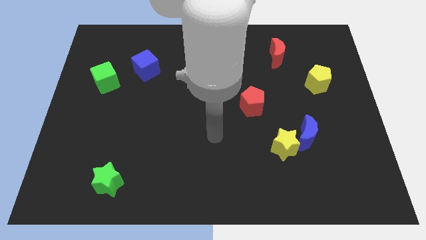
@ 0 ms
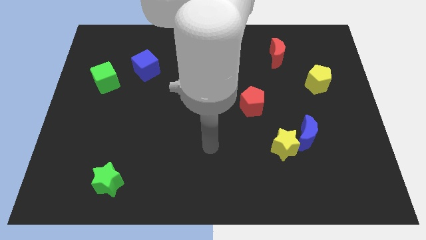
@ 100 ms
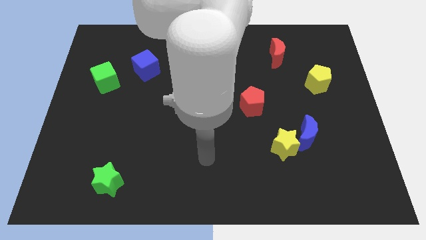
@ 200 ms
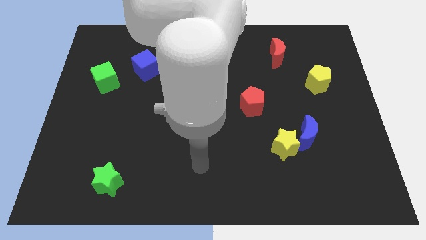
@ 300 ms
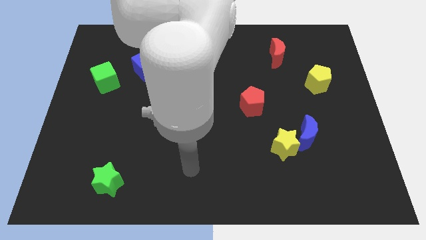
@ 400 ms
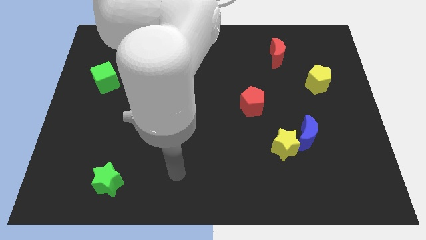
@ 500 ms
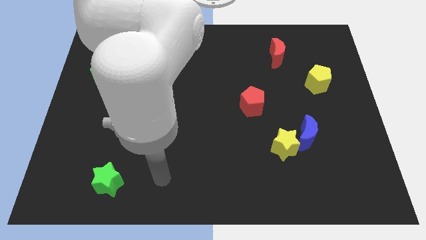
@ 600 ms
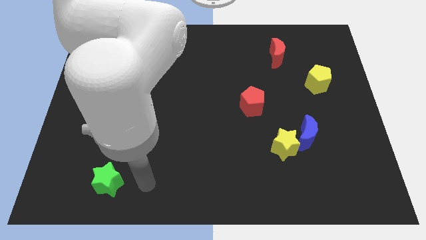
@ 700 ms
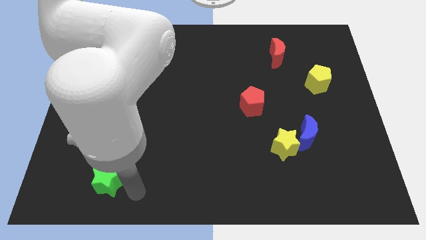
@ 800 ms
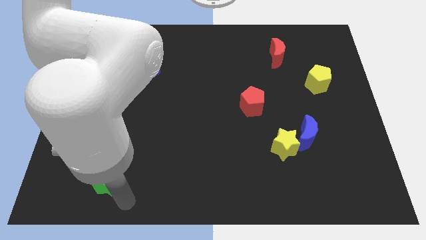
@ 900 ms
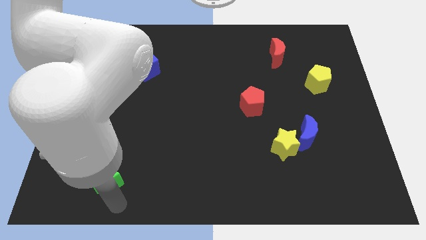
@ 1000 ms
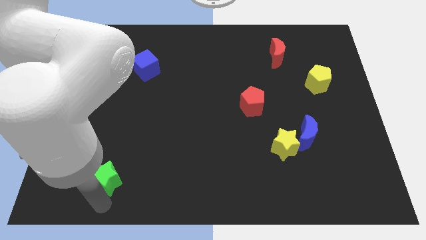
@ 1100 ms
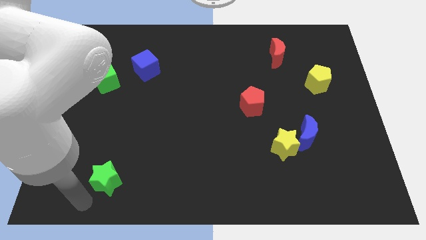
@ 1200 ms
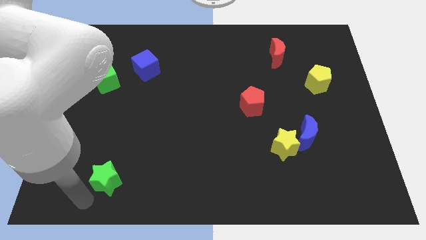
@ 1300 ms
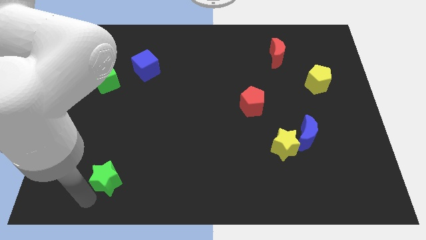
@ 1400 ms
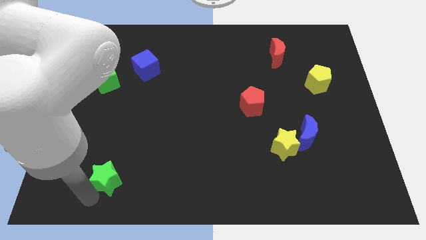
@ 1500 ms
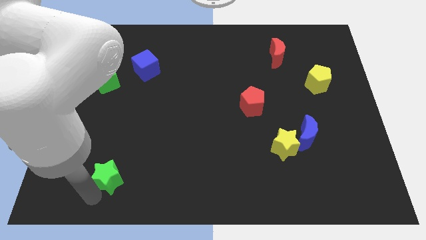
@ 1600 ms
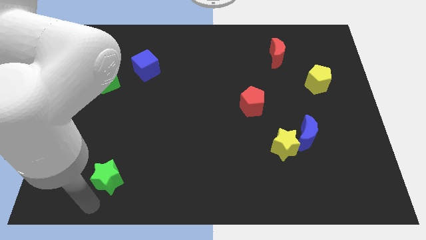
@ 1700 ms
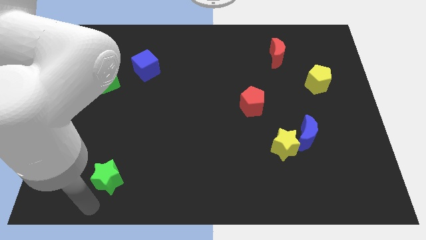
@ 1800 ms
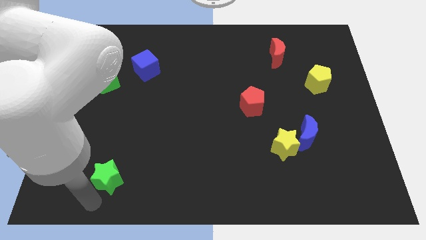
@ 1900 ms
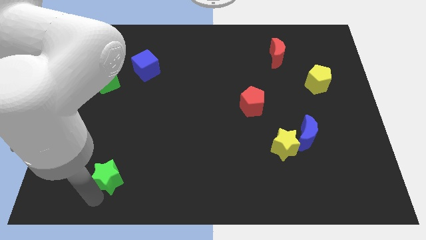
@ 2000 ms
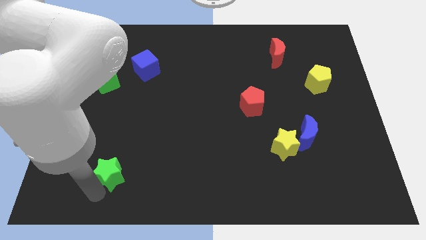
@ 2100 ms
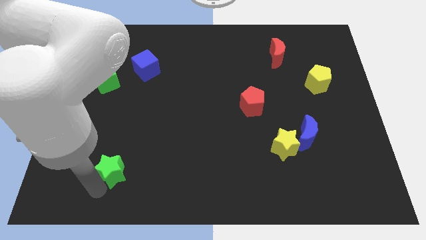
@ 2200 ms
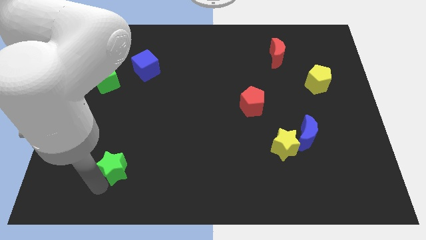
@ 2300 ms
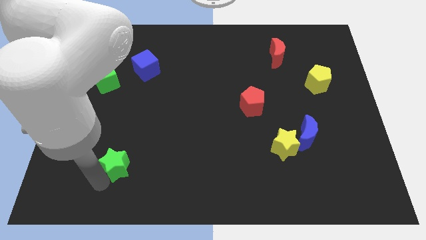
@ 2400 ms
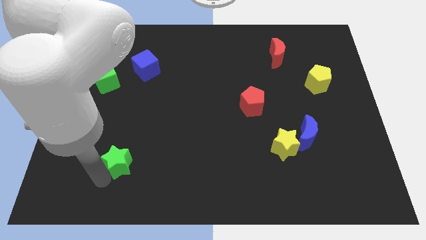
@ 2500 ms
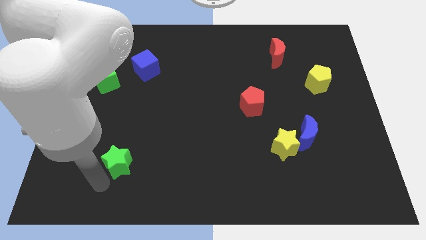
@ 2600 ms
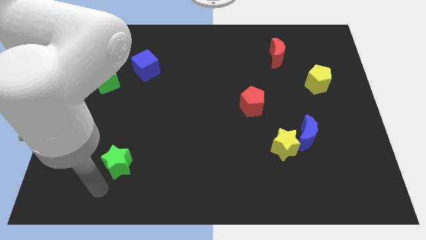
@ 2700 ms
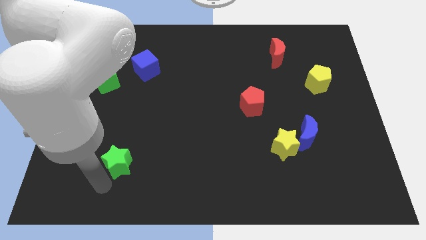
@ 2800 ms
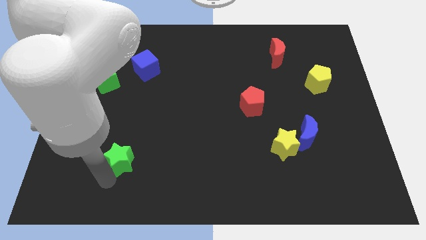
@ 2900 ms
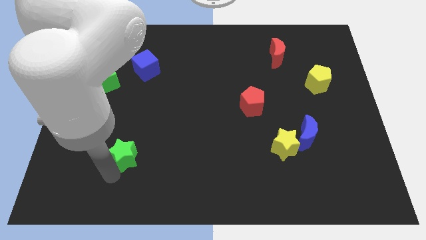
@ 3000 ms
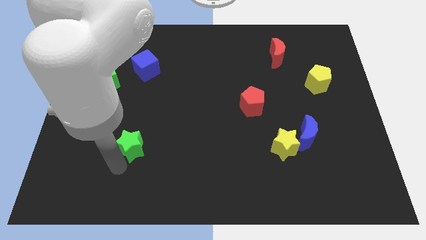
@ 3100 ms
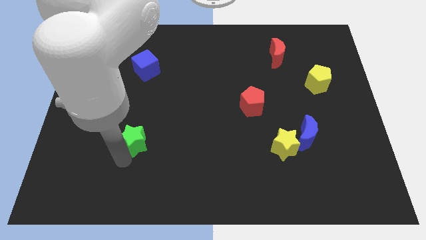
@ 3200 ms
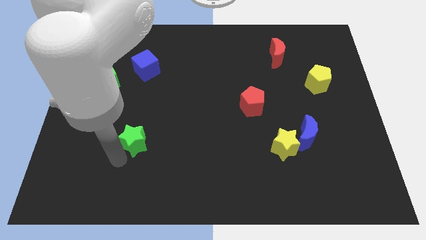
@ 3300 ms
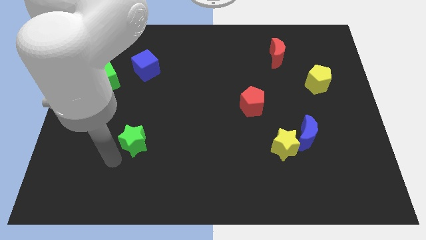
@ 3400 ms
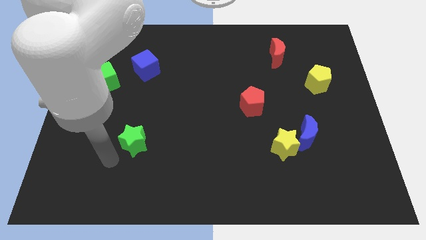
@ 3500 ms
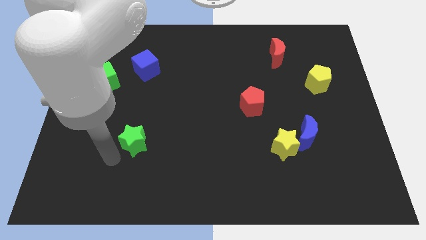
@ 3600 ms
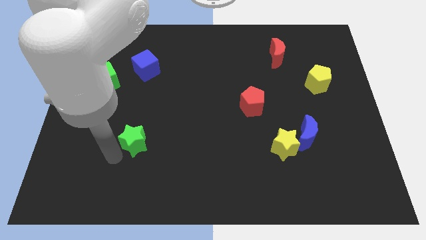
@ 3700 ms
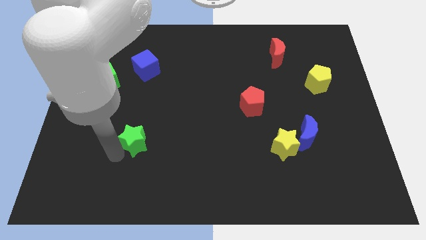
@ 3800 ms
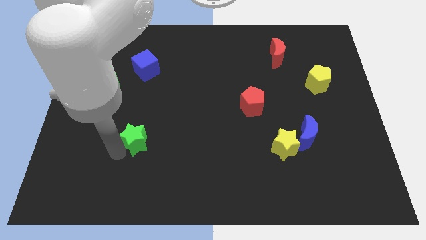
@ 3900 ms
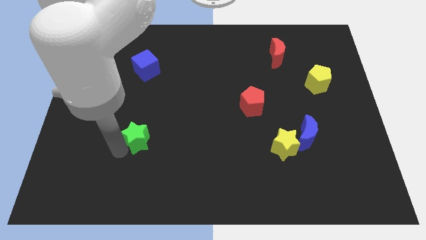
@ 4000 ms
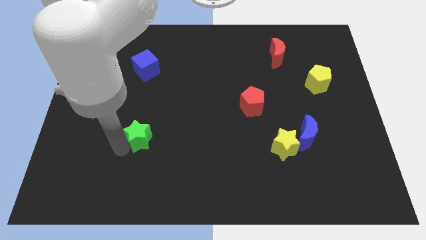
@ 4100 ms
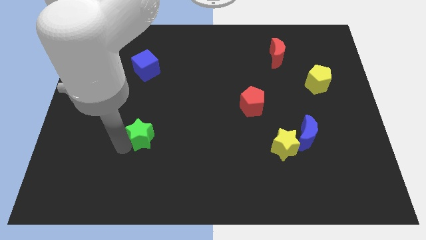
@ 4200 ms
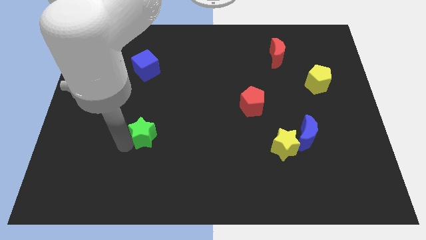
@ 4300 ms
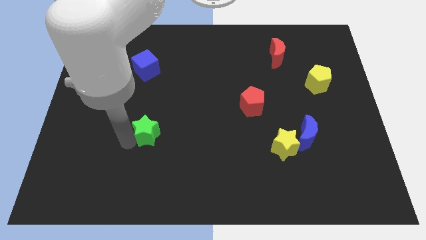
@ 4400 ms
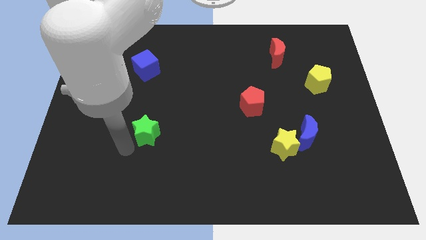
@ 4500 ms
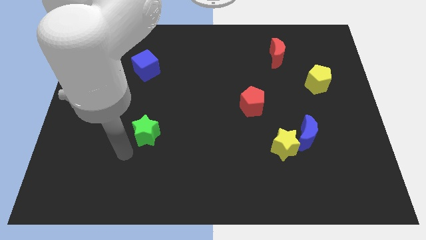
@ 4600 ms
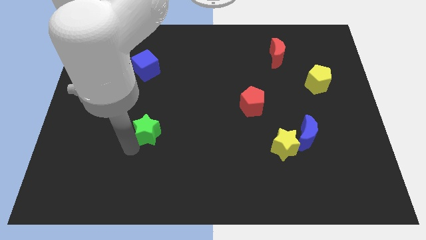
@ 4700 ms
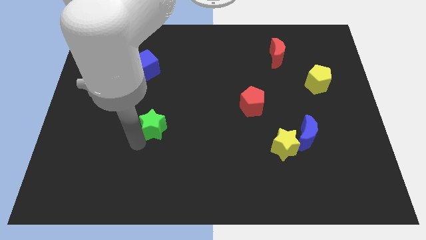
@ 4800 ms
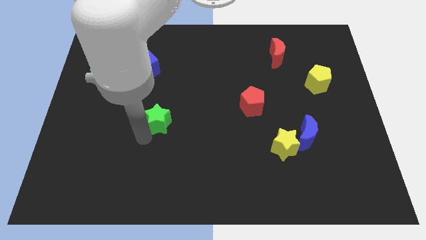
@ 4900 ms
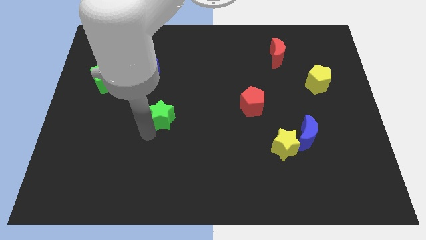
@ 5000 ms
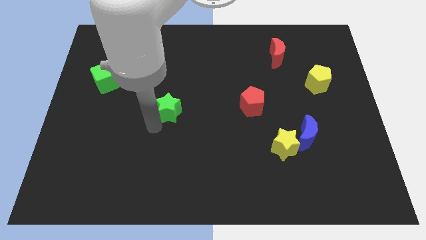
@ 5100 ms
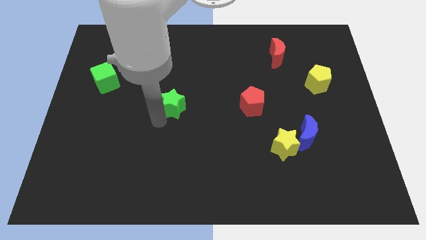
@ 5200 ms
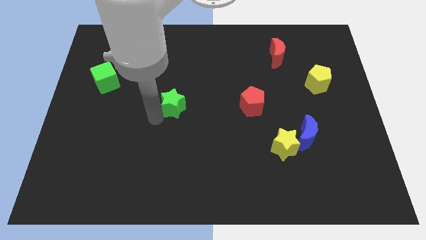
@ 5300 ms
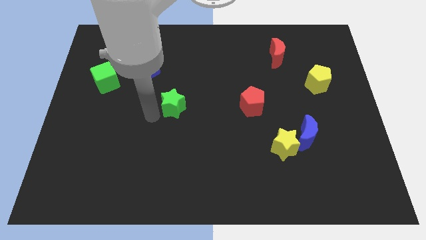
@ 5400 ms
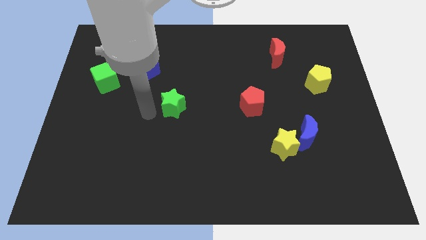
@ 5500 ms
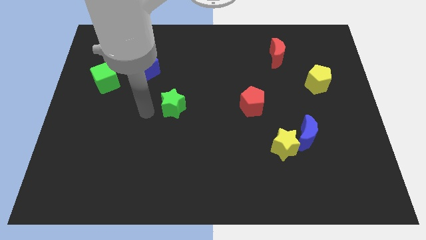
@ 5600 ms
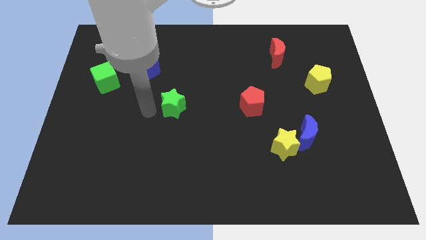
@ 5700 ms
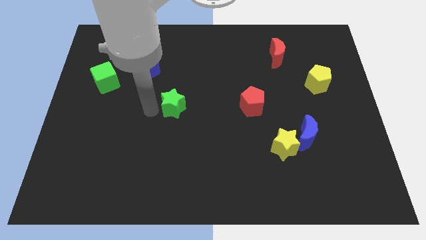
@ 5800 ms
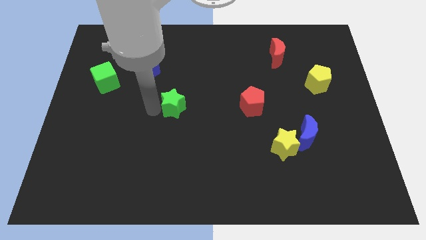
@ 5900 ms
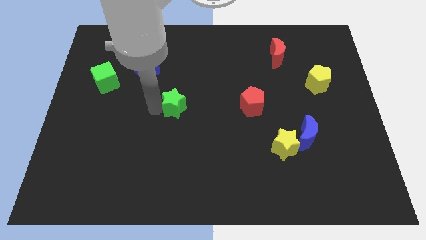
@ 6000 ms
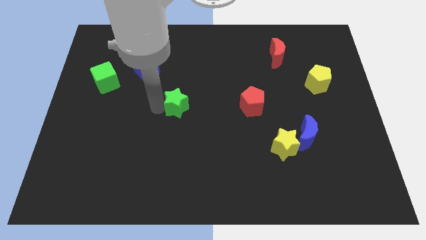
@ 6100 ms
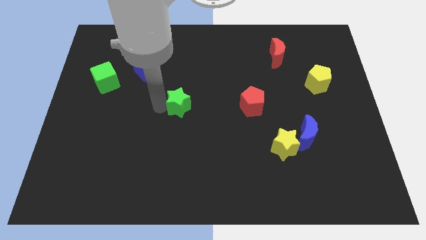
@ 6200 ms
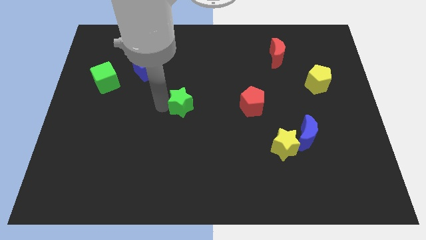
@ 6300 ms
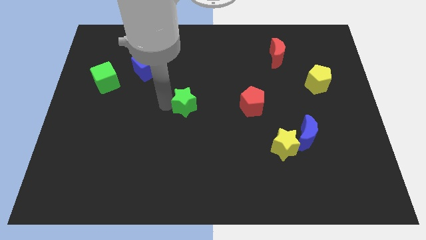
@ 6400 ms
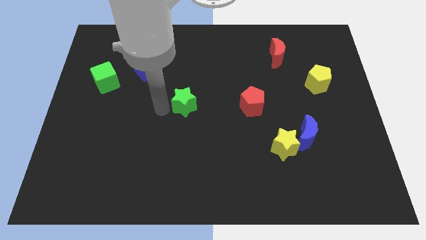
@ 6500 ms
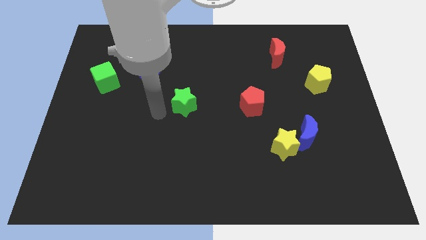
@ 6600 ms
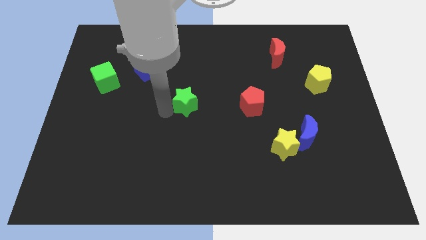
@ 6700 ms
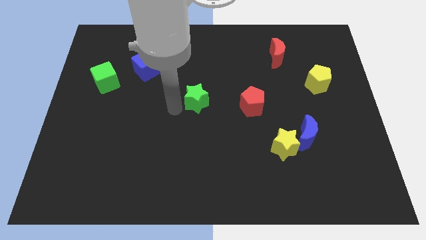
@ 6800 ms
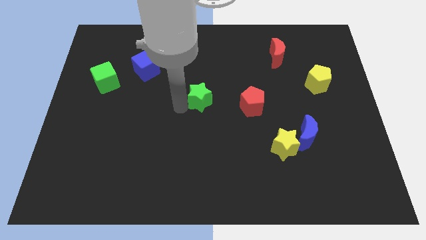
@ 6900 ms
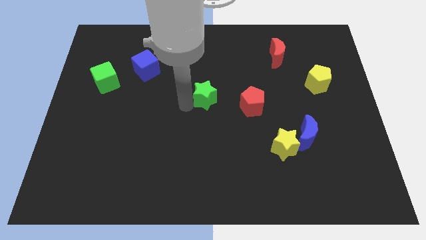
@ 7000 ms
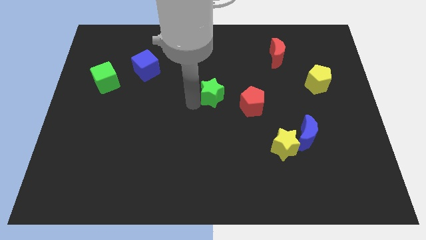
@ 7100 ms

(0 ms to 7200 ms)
slide the green star to the top left of the red pentagon
